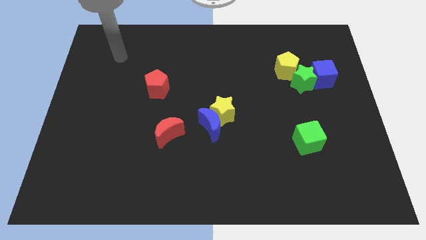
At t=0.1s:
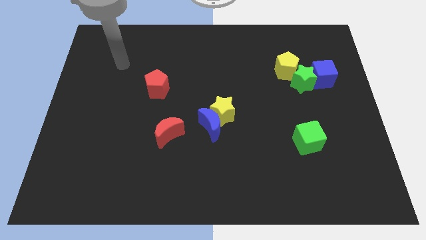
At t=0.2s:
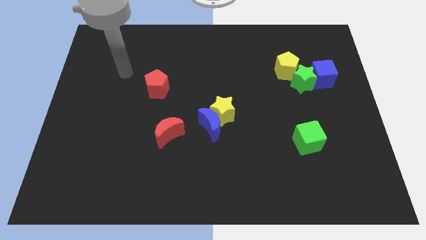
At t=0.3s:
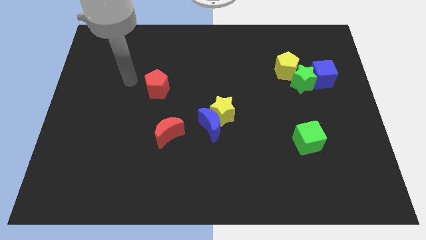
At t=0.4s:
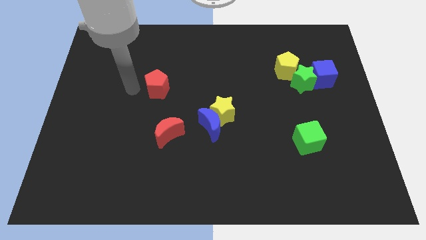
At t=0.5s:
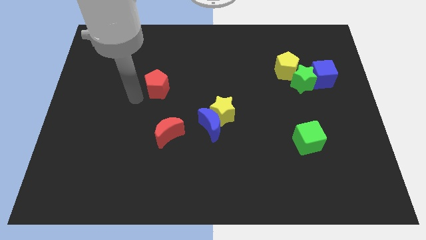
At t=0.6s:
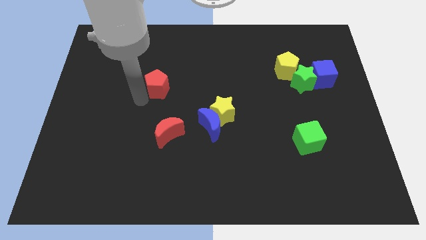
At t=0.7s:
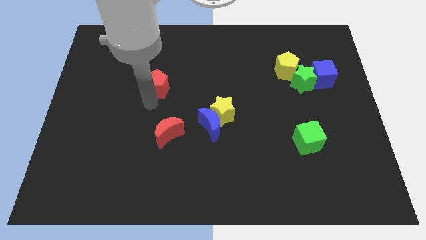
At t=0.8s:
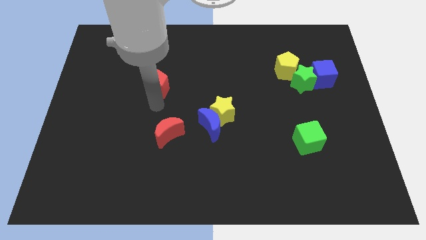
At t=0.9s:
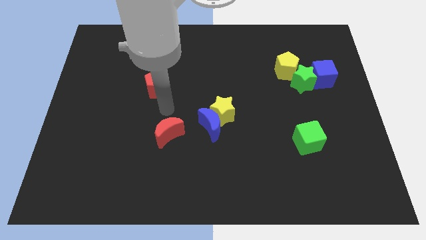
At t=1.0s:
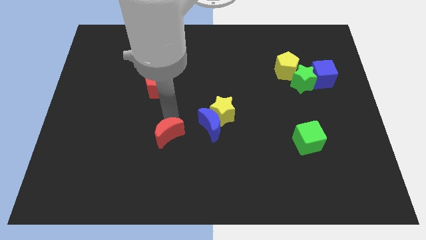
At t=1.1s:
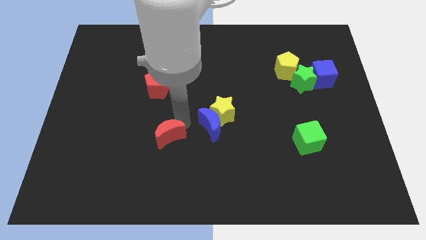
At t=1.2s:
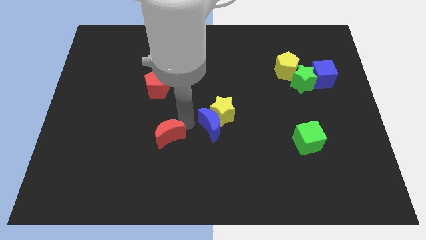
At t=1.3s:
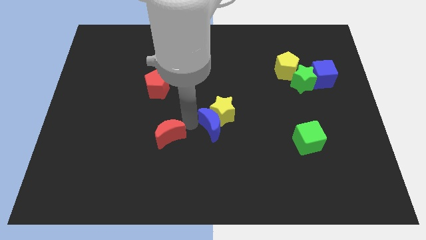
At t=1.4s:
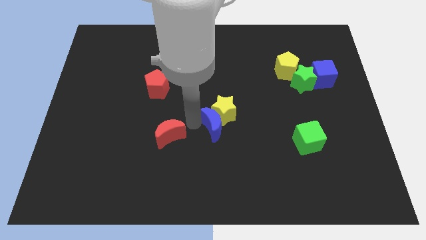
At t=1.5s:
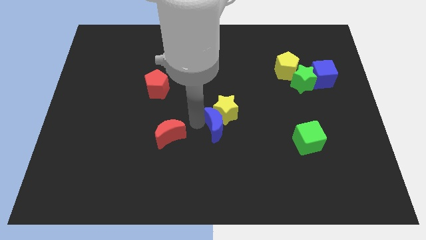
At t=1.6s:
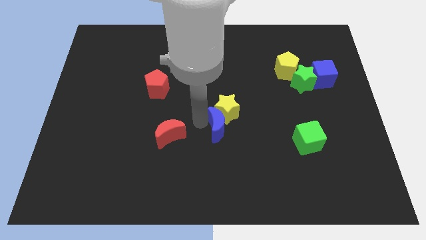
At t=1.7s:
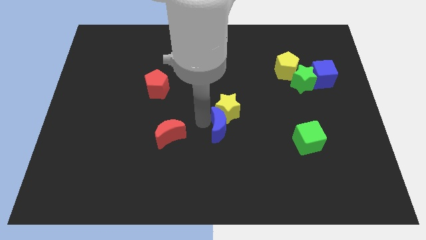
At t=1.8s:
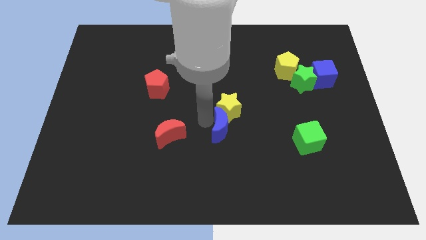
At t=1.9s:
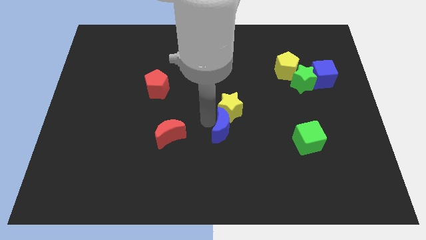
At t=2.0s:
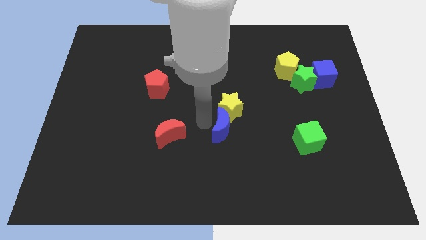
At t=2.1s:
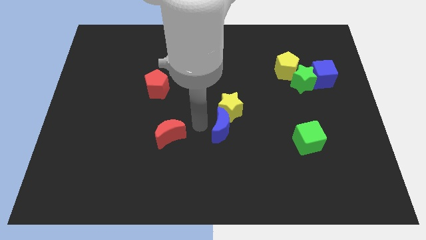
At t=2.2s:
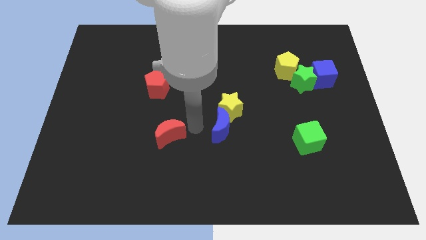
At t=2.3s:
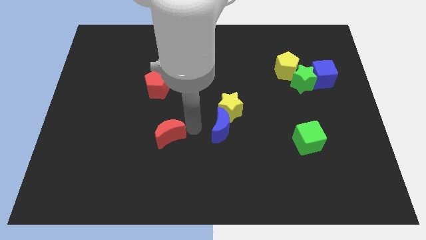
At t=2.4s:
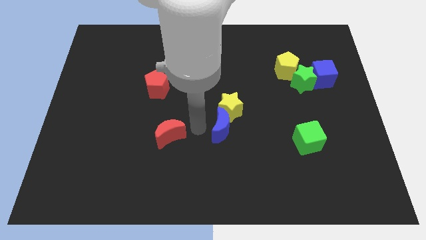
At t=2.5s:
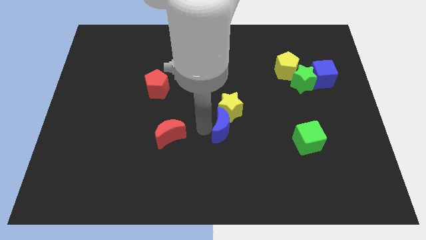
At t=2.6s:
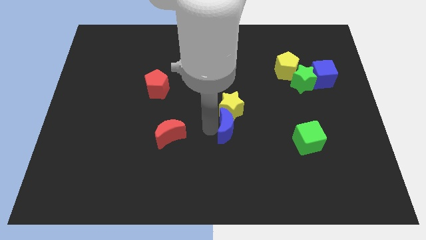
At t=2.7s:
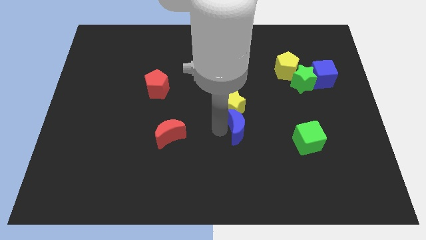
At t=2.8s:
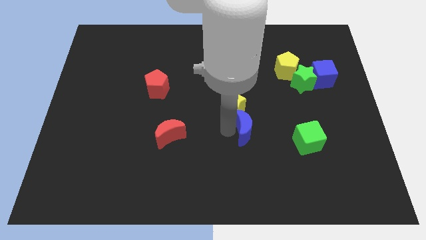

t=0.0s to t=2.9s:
push the blue moon right slightly

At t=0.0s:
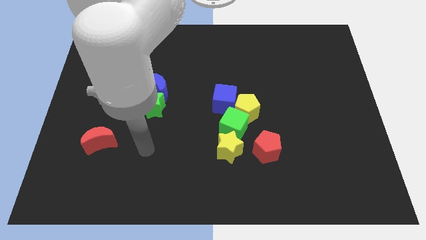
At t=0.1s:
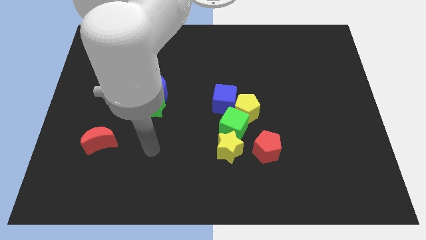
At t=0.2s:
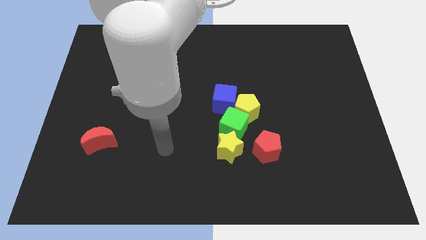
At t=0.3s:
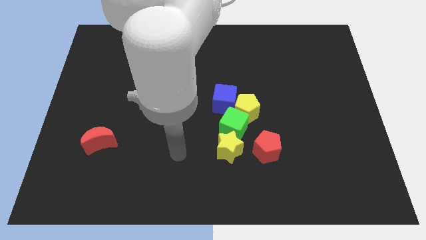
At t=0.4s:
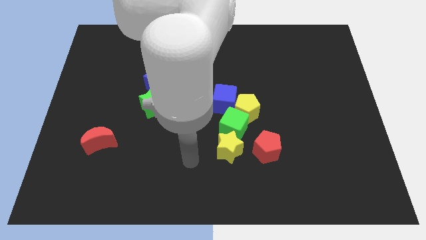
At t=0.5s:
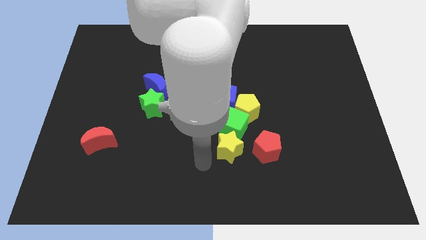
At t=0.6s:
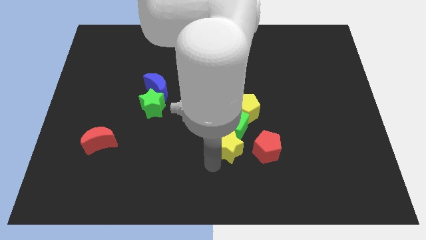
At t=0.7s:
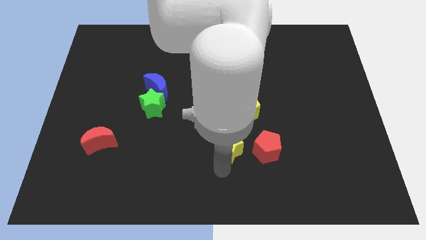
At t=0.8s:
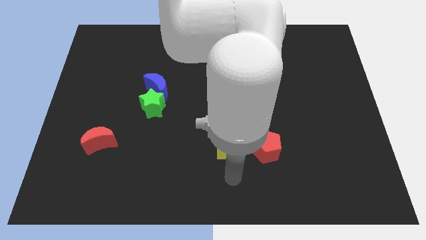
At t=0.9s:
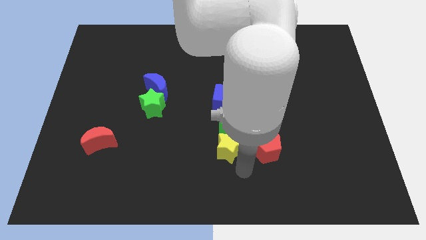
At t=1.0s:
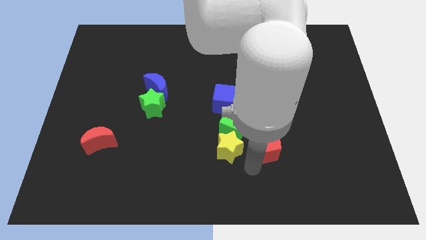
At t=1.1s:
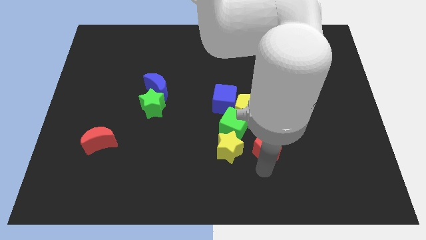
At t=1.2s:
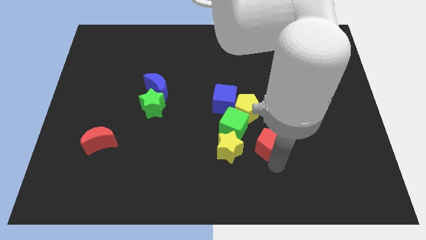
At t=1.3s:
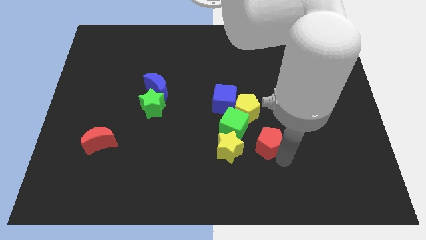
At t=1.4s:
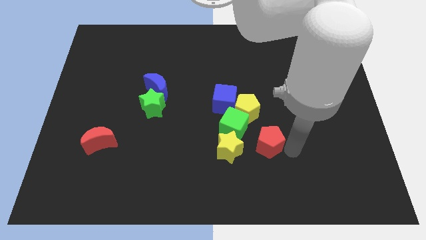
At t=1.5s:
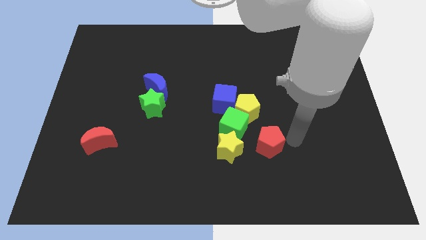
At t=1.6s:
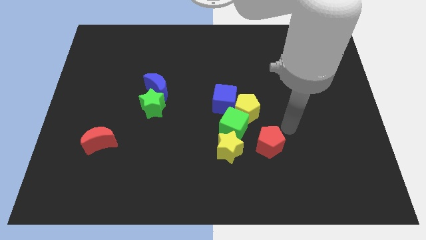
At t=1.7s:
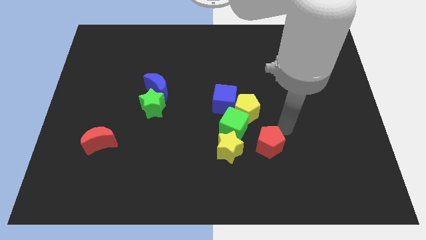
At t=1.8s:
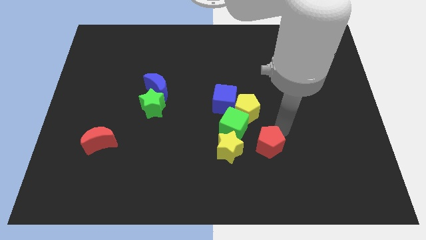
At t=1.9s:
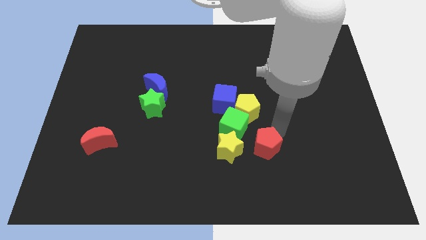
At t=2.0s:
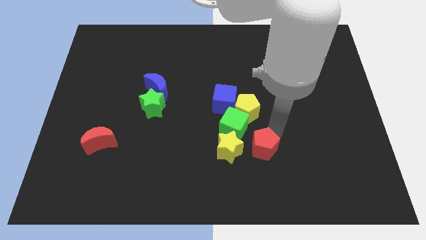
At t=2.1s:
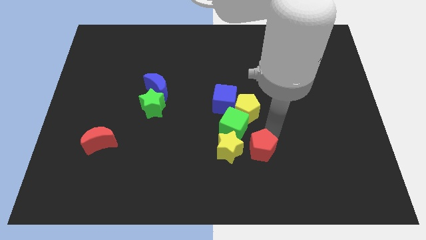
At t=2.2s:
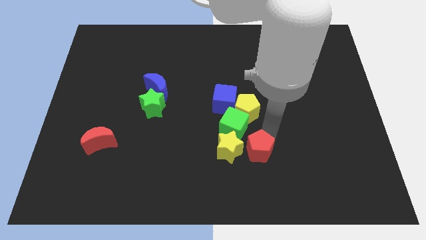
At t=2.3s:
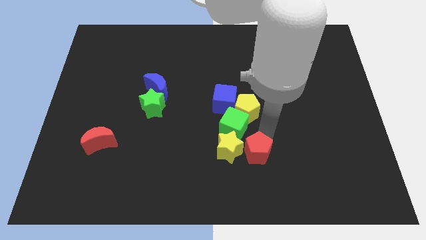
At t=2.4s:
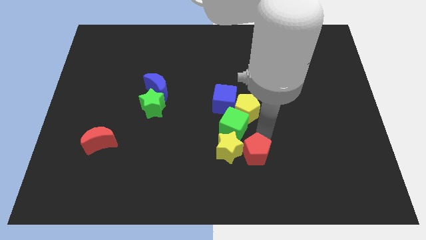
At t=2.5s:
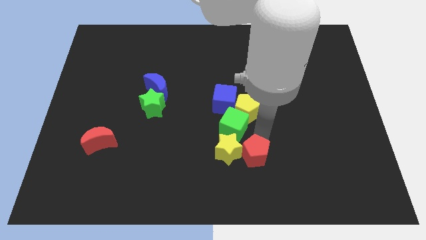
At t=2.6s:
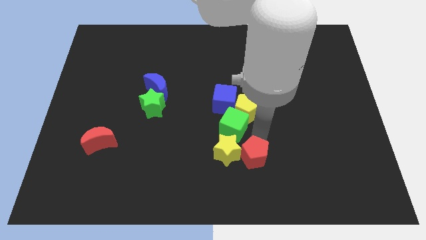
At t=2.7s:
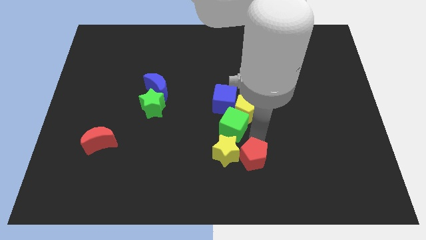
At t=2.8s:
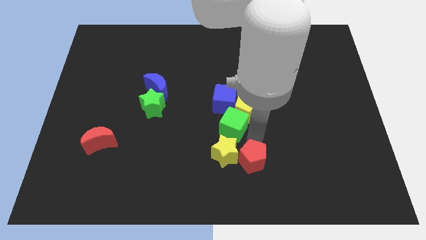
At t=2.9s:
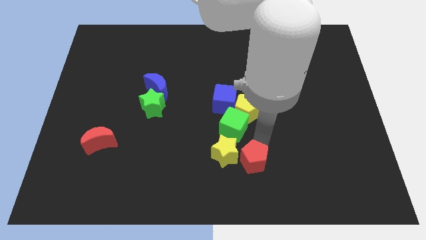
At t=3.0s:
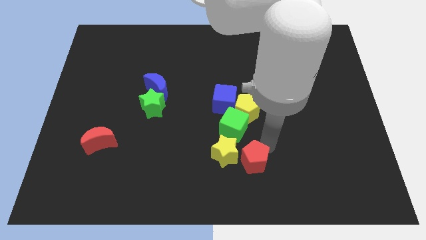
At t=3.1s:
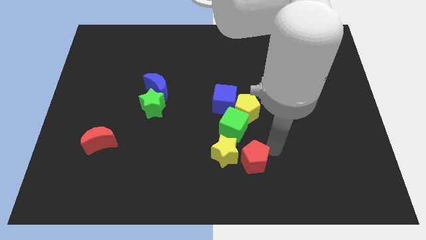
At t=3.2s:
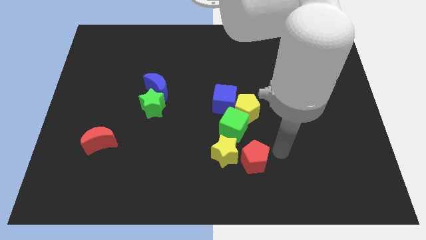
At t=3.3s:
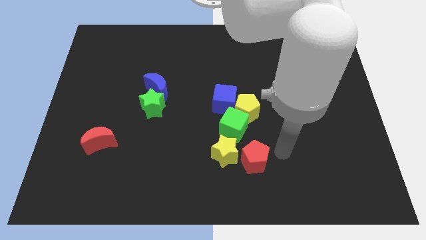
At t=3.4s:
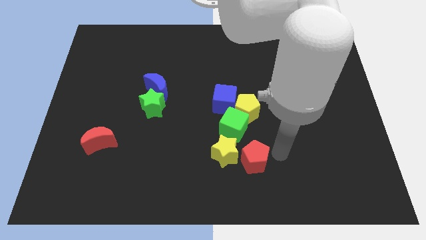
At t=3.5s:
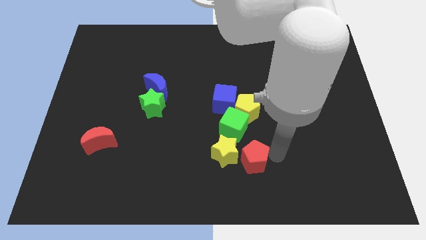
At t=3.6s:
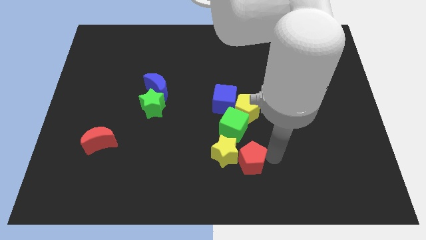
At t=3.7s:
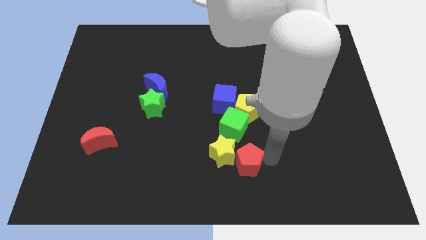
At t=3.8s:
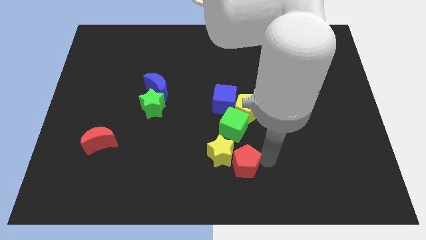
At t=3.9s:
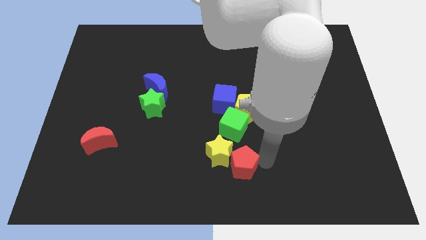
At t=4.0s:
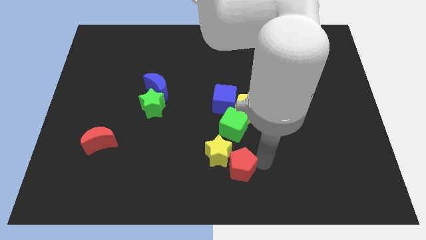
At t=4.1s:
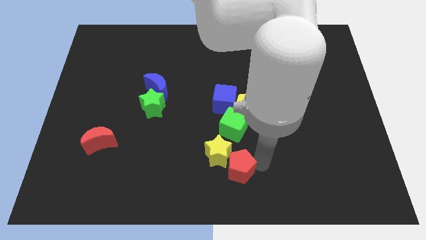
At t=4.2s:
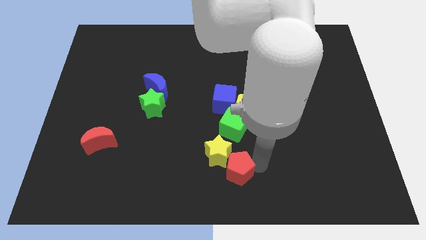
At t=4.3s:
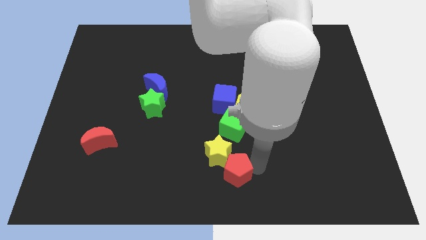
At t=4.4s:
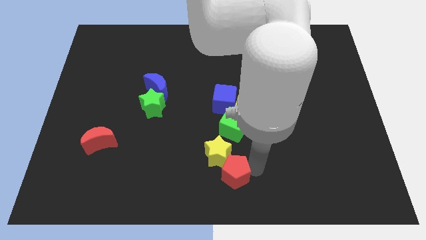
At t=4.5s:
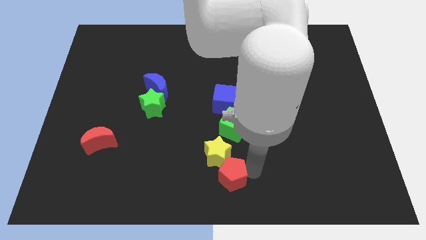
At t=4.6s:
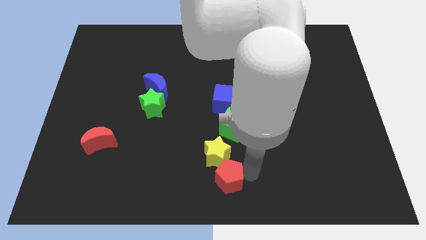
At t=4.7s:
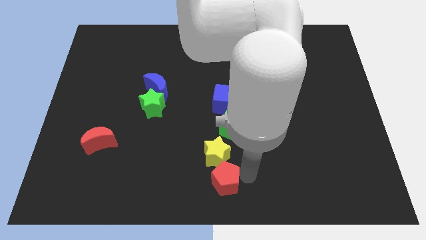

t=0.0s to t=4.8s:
slide the red pentagon left a bit

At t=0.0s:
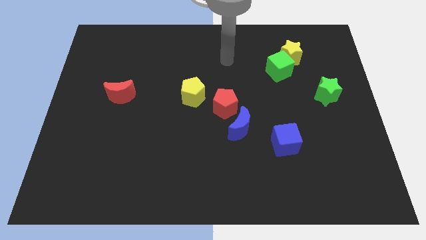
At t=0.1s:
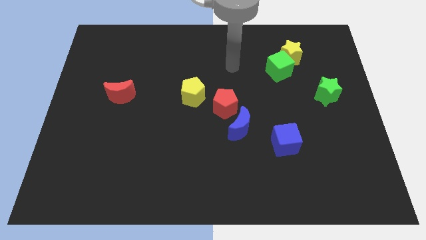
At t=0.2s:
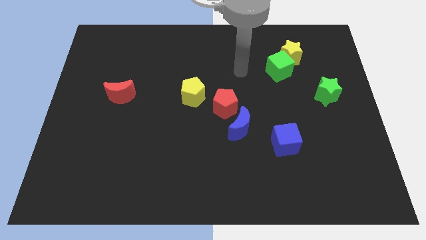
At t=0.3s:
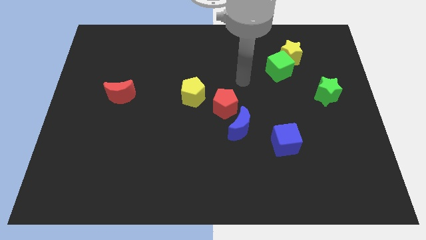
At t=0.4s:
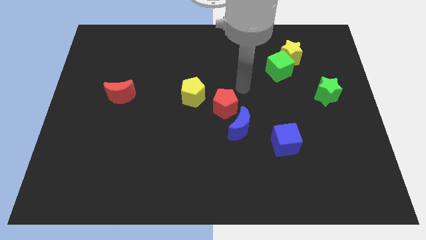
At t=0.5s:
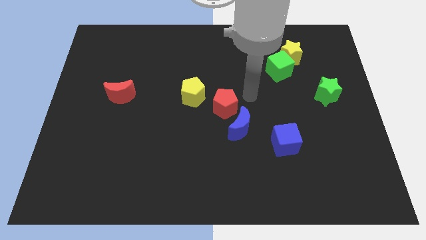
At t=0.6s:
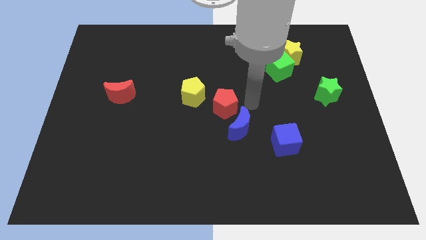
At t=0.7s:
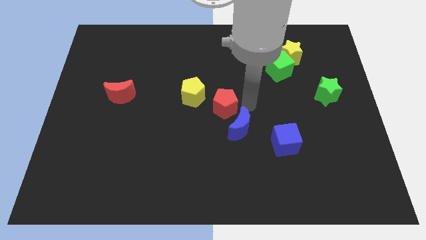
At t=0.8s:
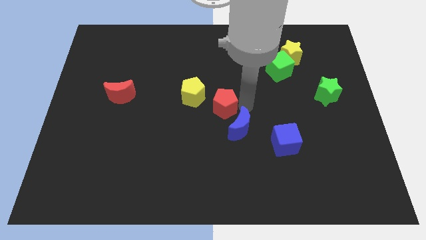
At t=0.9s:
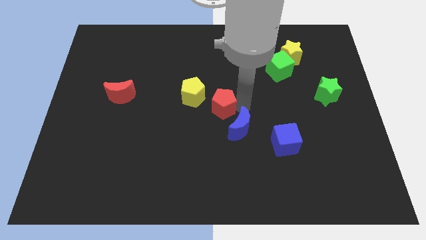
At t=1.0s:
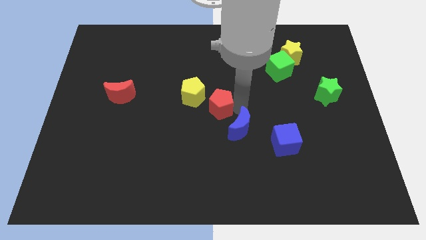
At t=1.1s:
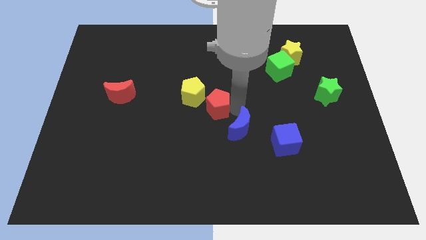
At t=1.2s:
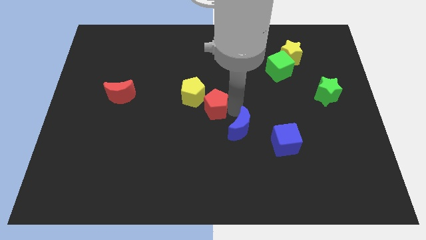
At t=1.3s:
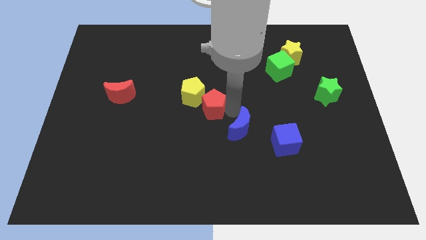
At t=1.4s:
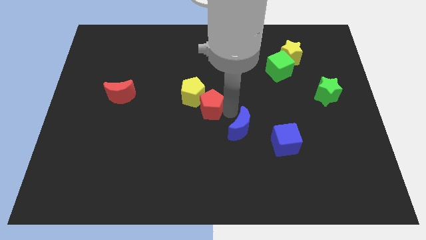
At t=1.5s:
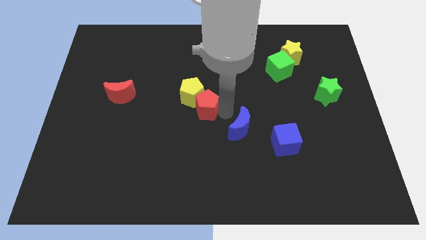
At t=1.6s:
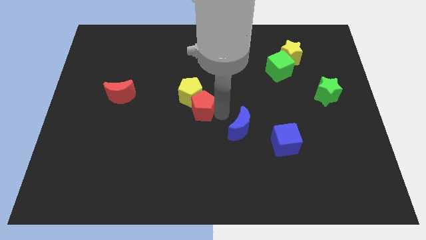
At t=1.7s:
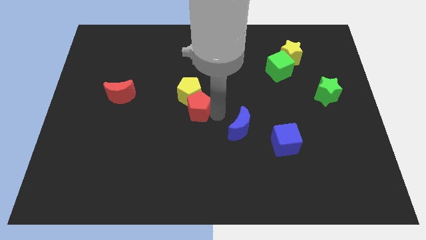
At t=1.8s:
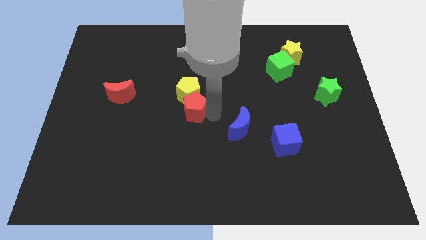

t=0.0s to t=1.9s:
slightly slide the red pentagon to the left
